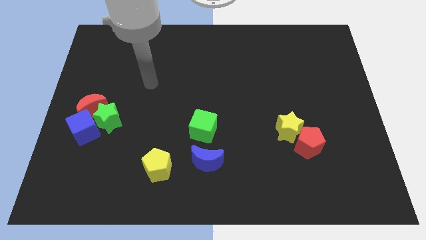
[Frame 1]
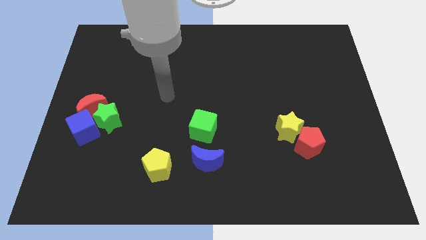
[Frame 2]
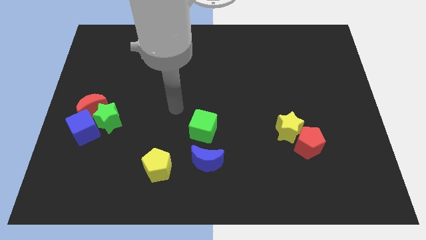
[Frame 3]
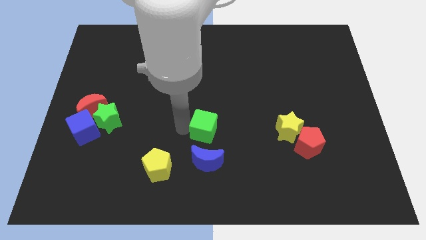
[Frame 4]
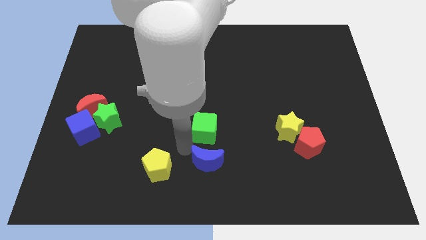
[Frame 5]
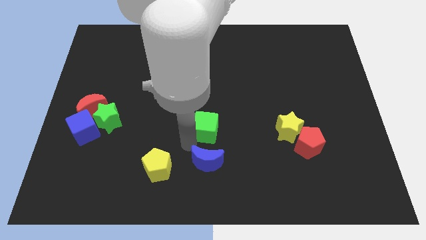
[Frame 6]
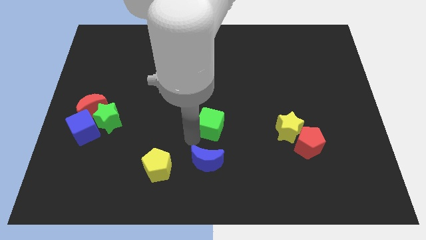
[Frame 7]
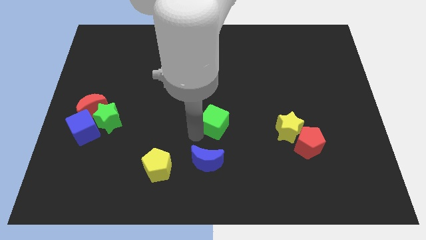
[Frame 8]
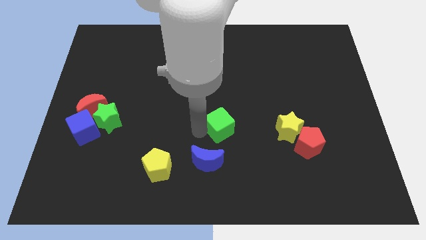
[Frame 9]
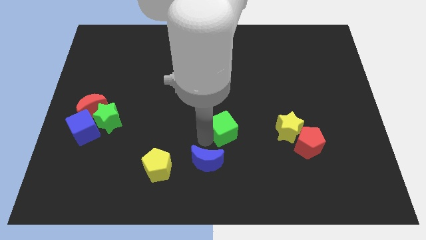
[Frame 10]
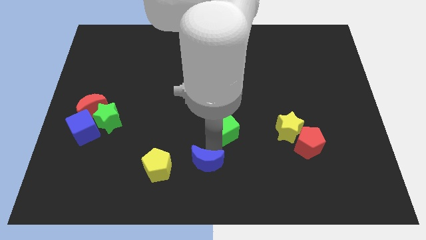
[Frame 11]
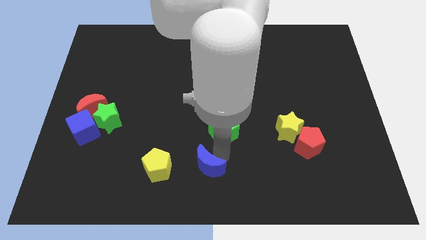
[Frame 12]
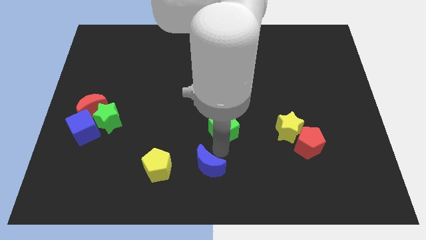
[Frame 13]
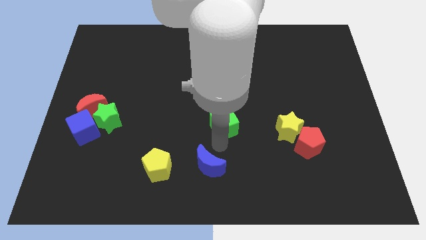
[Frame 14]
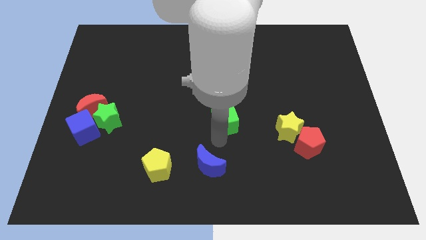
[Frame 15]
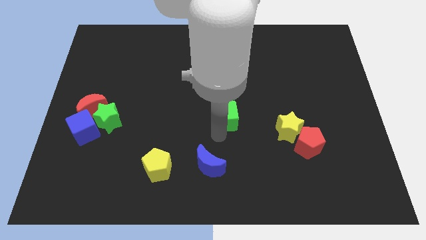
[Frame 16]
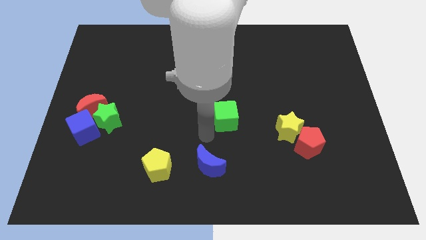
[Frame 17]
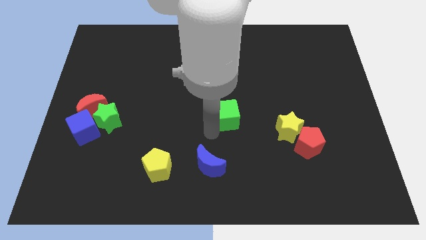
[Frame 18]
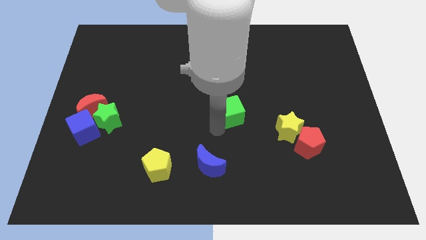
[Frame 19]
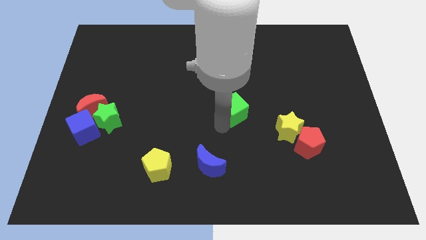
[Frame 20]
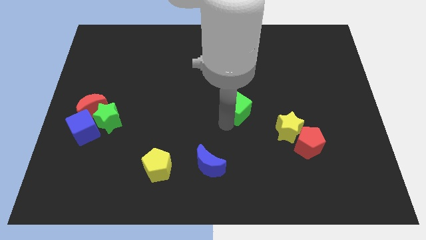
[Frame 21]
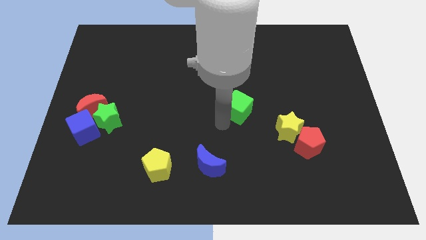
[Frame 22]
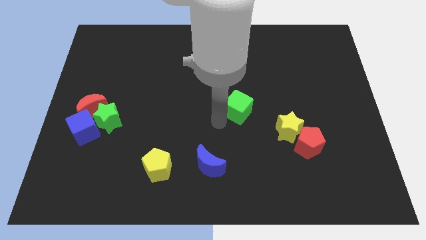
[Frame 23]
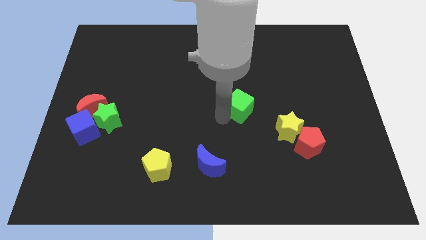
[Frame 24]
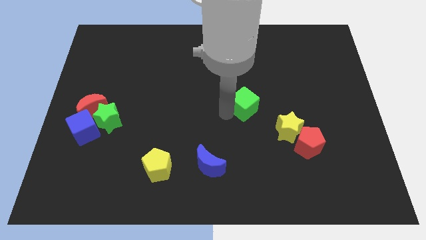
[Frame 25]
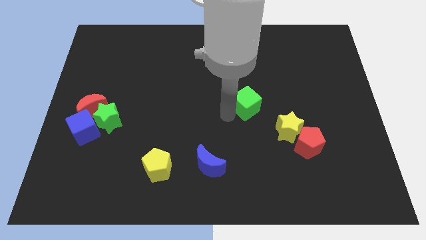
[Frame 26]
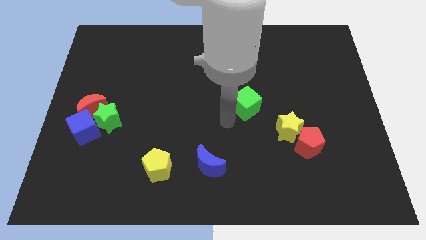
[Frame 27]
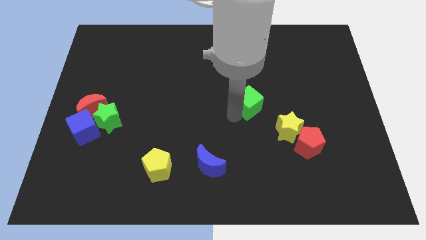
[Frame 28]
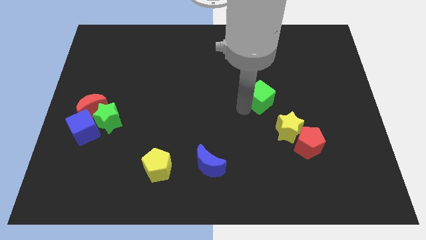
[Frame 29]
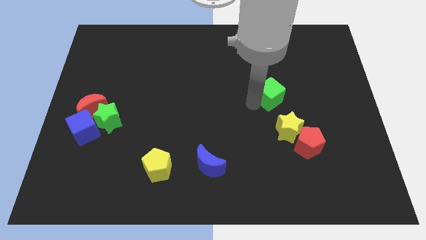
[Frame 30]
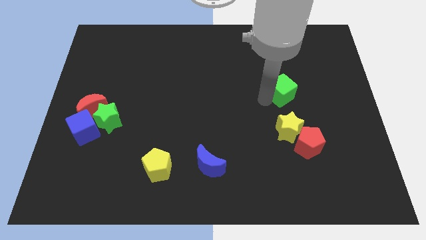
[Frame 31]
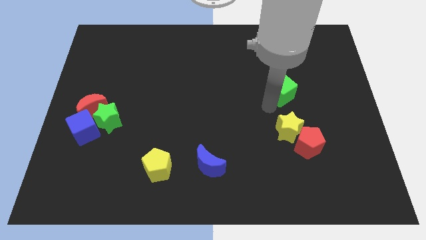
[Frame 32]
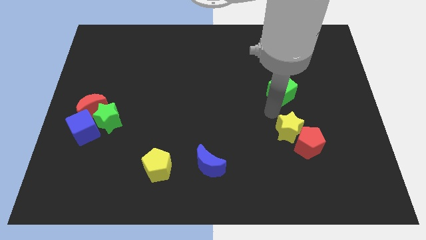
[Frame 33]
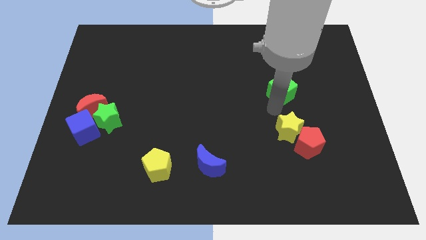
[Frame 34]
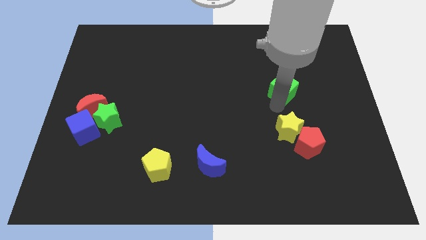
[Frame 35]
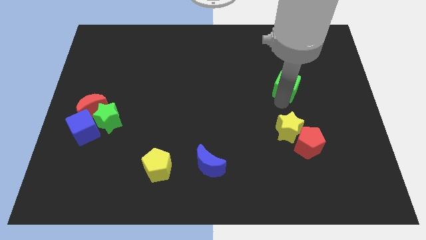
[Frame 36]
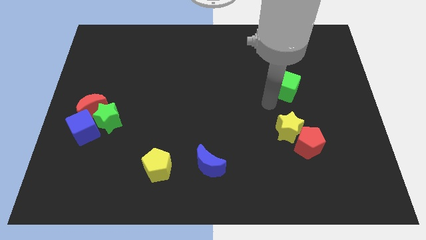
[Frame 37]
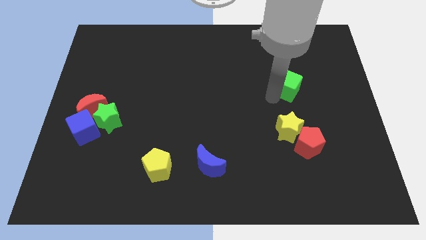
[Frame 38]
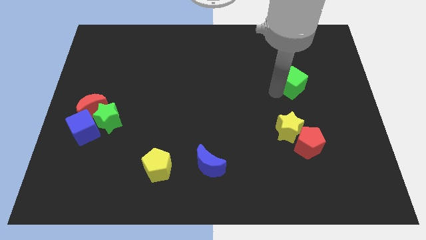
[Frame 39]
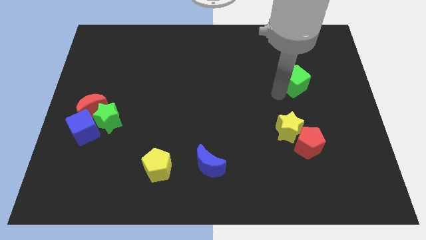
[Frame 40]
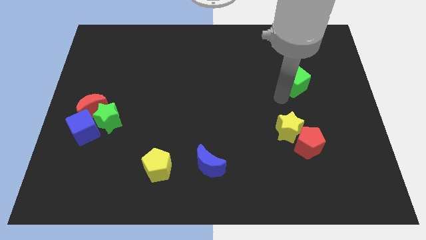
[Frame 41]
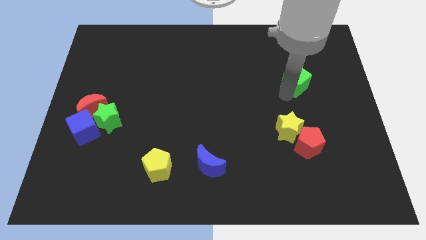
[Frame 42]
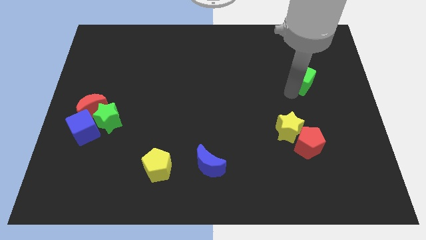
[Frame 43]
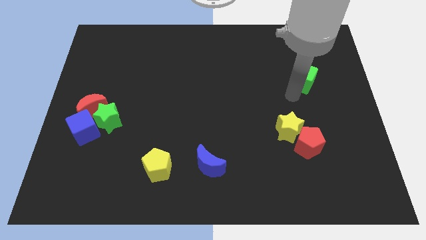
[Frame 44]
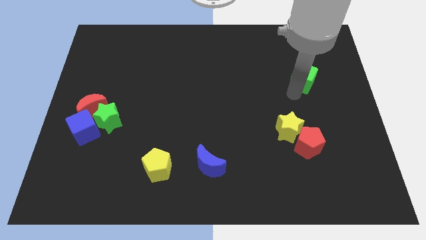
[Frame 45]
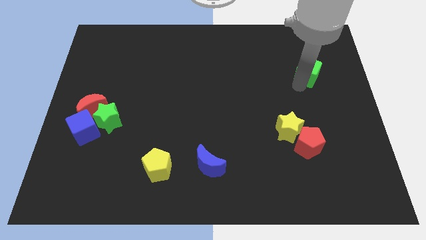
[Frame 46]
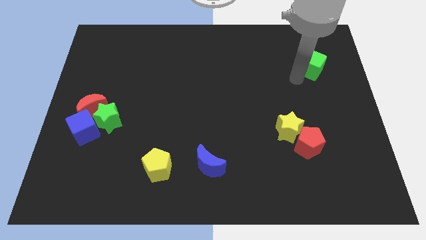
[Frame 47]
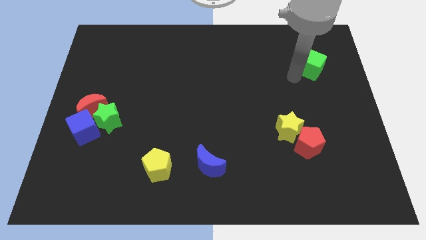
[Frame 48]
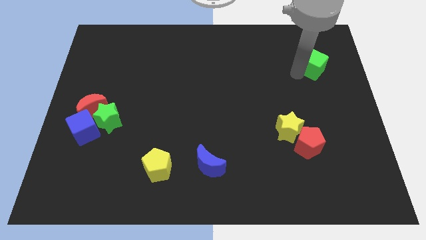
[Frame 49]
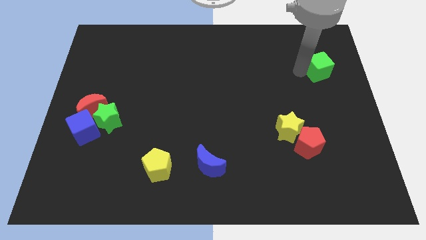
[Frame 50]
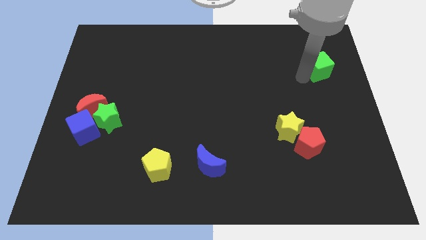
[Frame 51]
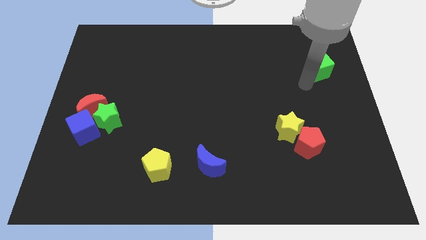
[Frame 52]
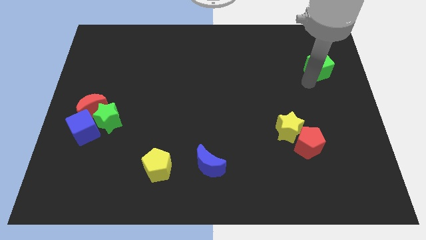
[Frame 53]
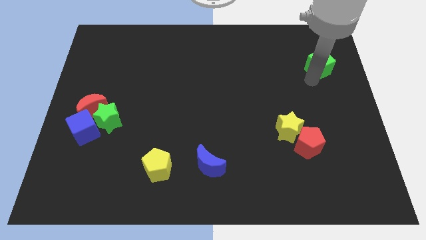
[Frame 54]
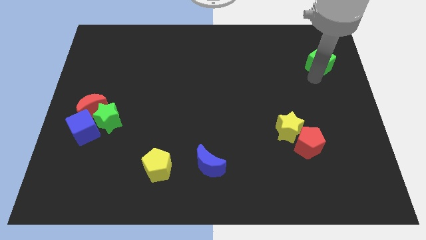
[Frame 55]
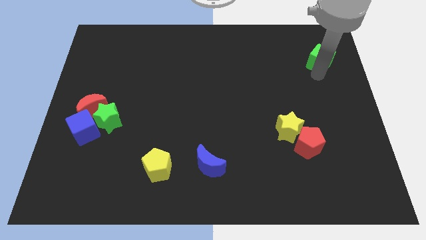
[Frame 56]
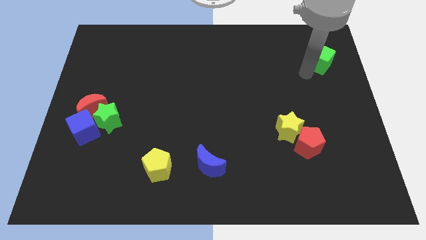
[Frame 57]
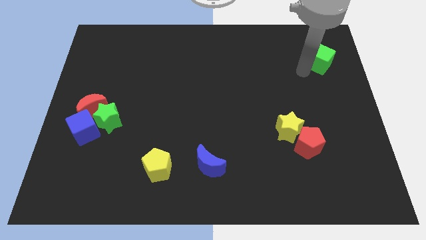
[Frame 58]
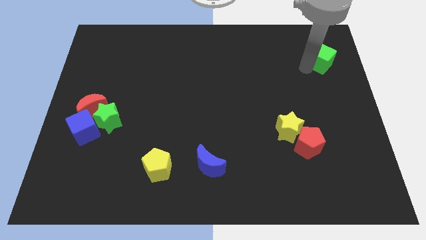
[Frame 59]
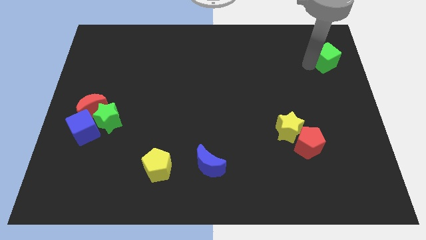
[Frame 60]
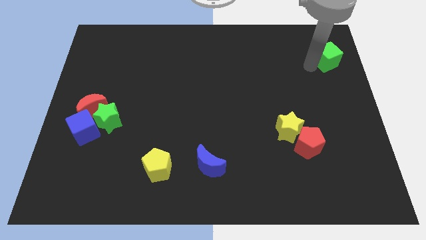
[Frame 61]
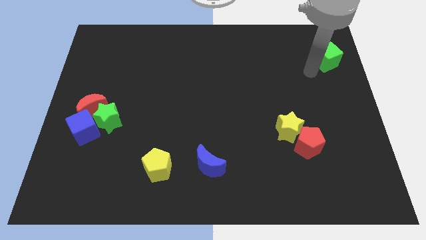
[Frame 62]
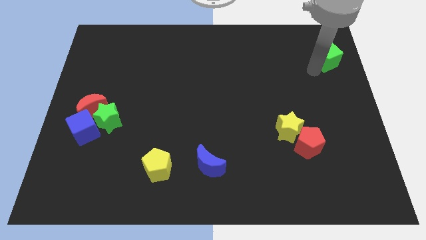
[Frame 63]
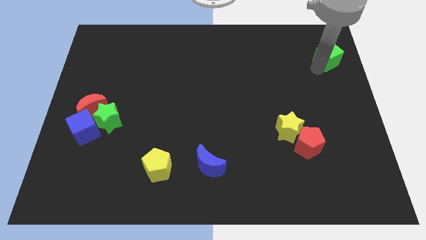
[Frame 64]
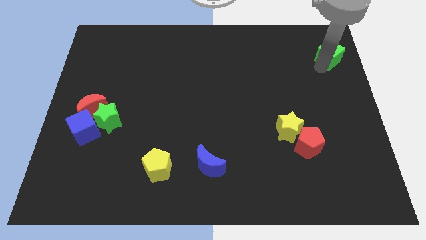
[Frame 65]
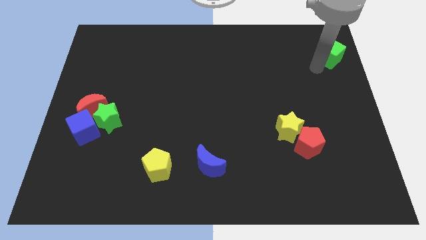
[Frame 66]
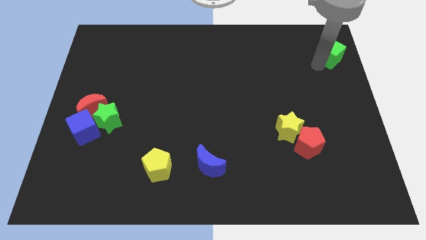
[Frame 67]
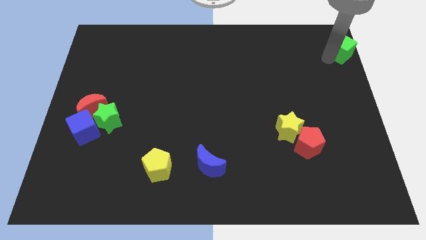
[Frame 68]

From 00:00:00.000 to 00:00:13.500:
move the green cube to the top right corner
